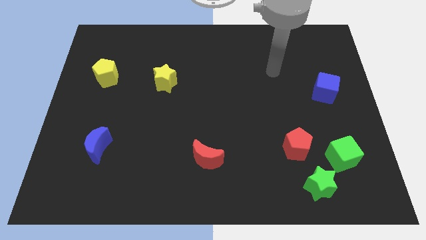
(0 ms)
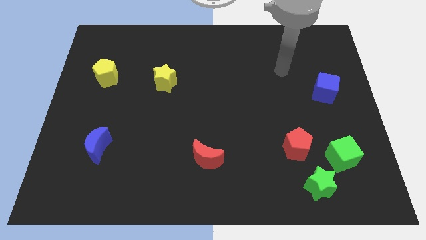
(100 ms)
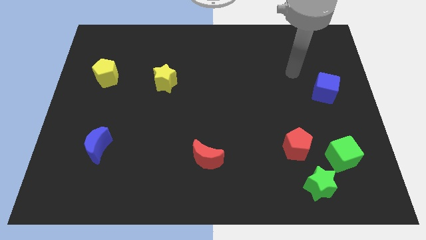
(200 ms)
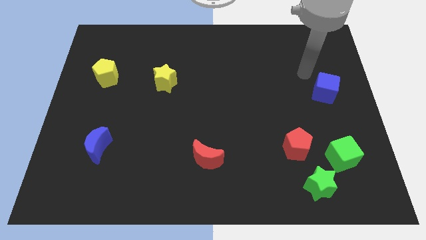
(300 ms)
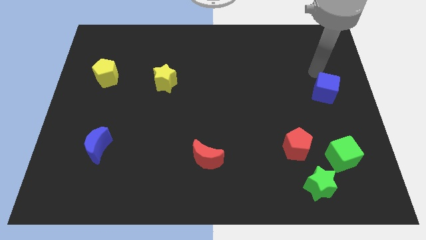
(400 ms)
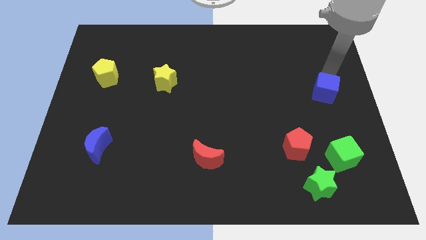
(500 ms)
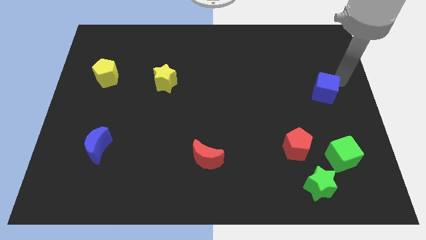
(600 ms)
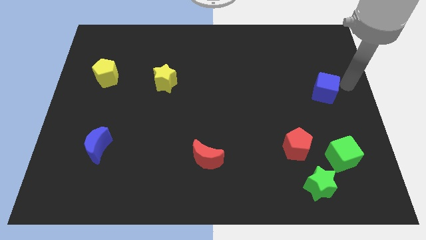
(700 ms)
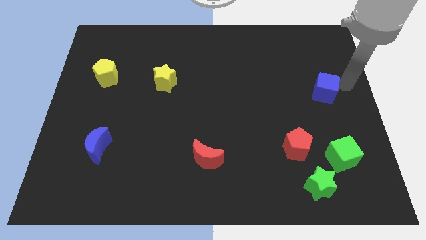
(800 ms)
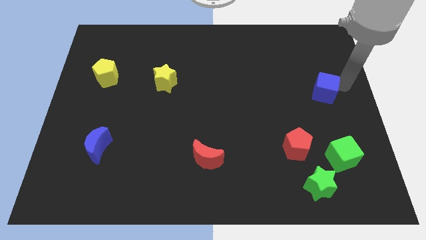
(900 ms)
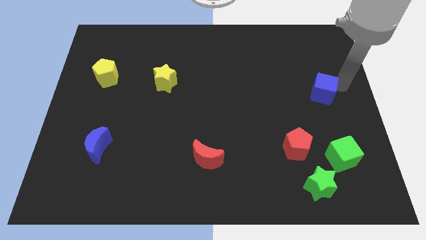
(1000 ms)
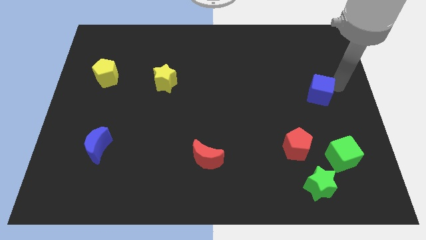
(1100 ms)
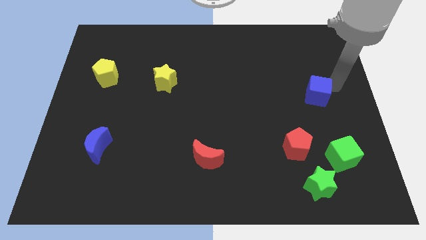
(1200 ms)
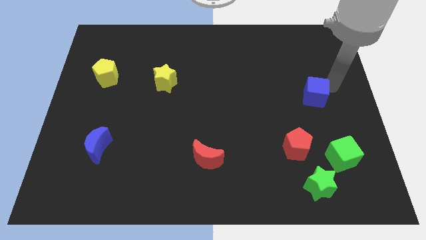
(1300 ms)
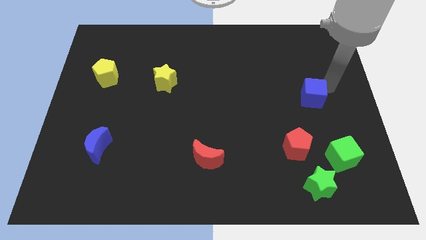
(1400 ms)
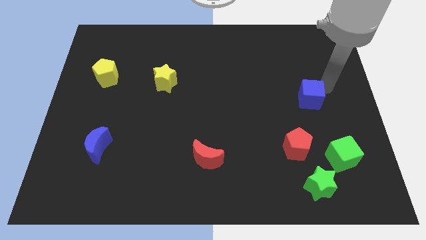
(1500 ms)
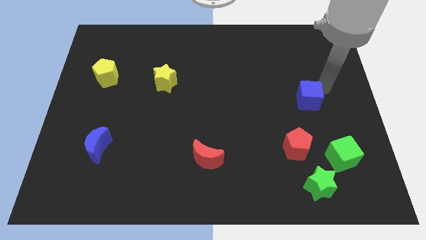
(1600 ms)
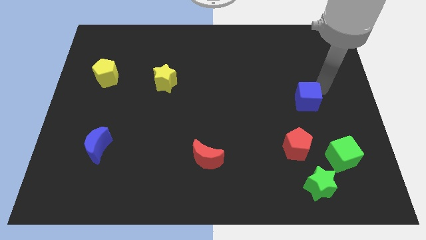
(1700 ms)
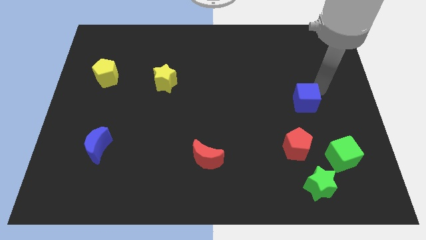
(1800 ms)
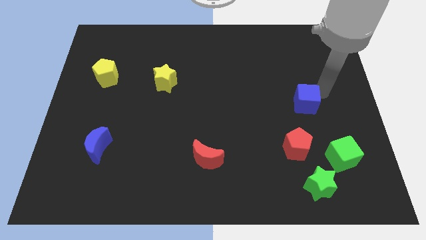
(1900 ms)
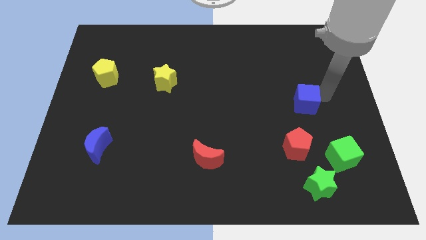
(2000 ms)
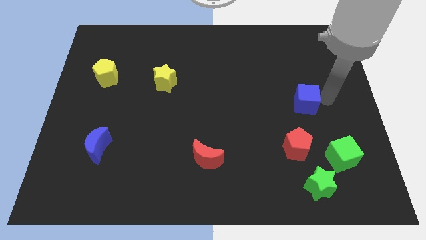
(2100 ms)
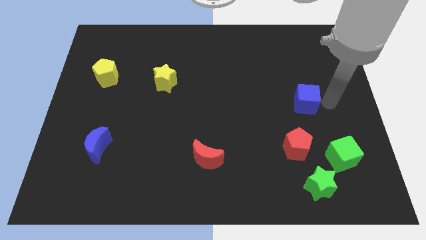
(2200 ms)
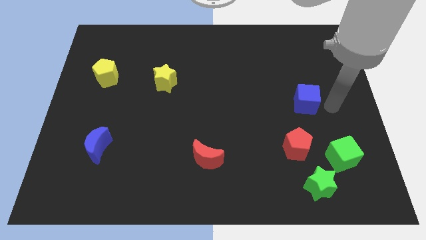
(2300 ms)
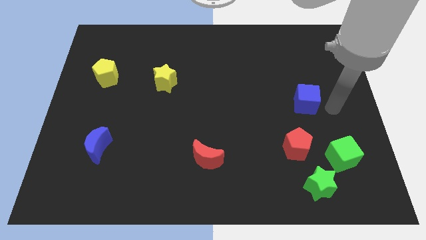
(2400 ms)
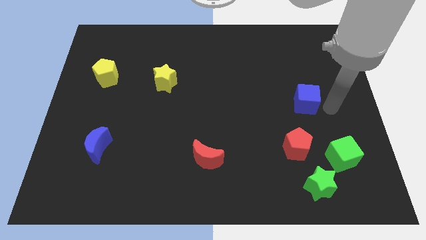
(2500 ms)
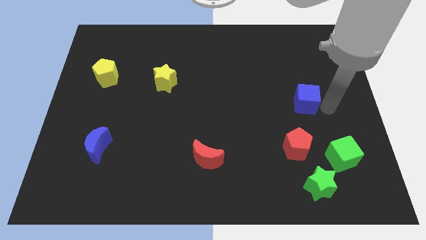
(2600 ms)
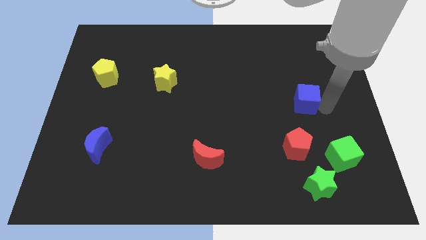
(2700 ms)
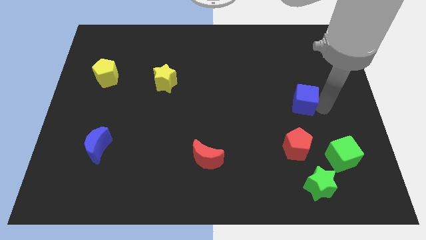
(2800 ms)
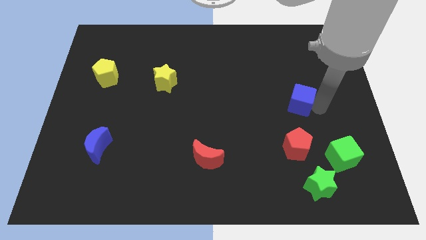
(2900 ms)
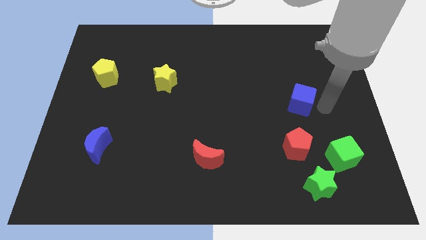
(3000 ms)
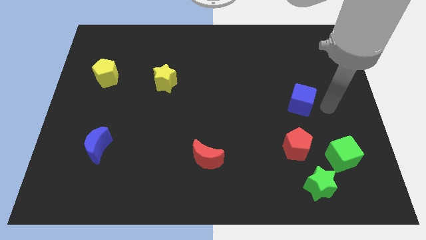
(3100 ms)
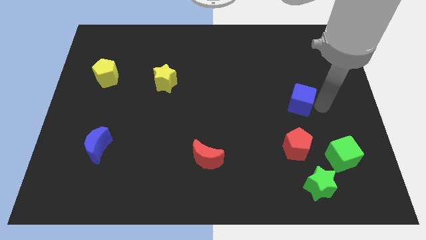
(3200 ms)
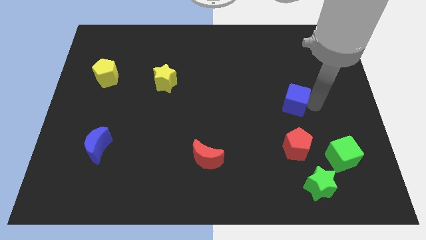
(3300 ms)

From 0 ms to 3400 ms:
move the blue cube slightly to the left

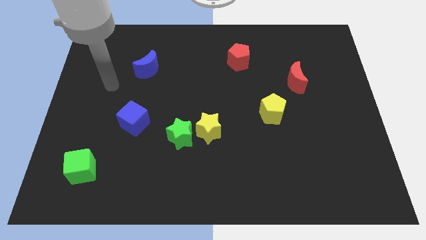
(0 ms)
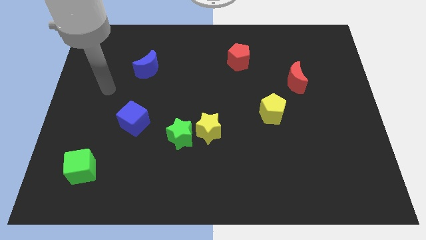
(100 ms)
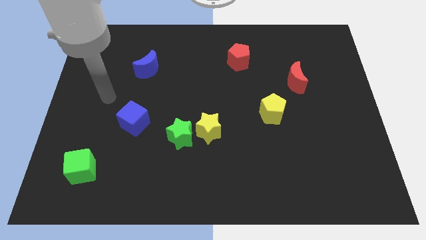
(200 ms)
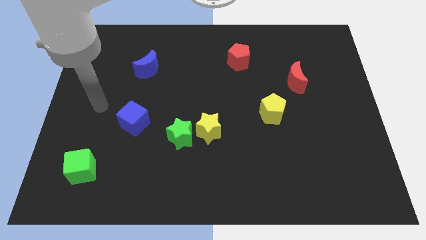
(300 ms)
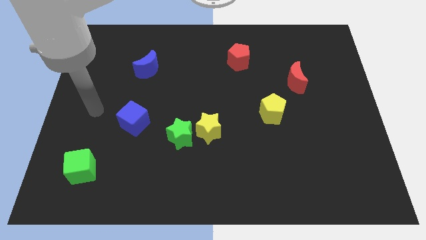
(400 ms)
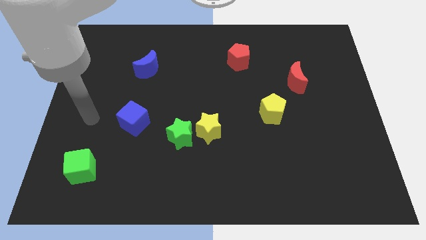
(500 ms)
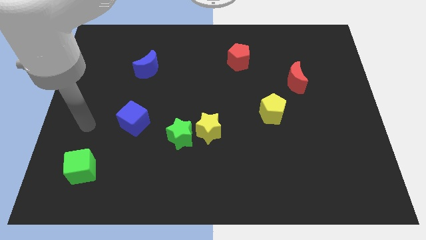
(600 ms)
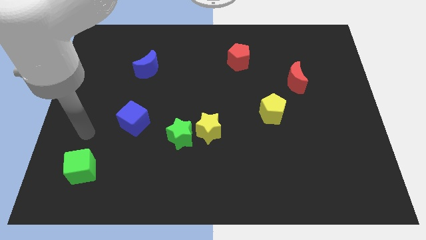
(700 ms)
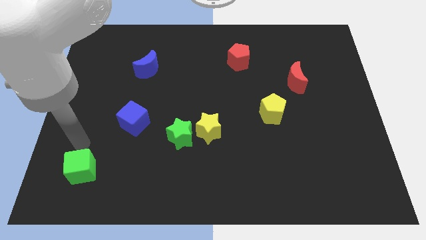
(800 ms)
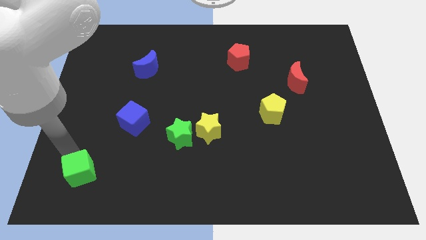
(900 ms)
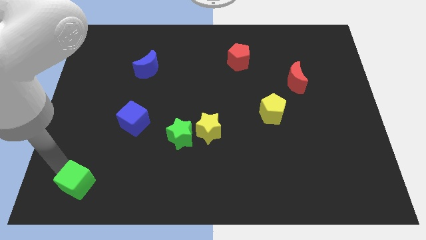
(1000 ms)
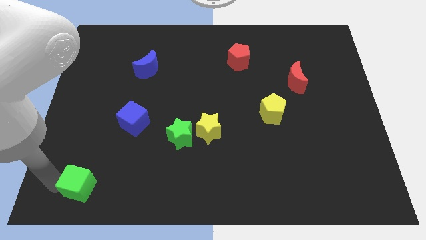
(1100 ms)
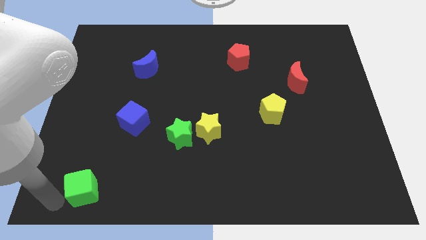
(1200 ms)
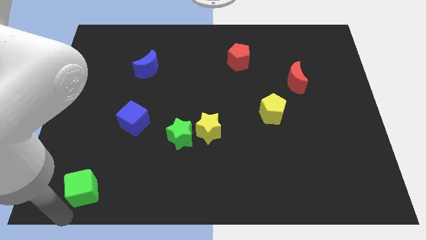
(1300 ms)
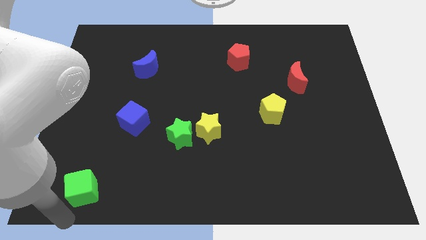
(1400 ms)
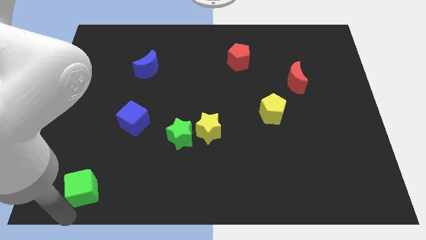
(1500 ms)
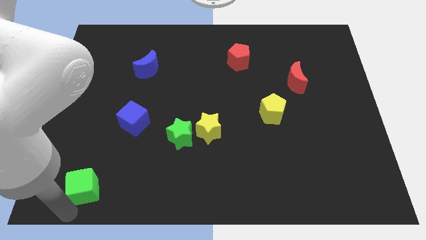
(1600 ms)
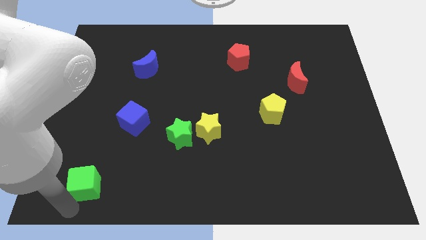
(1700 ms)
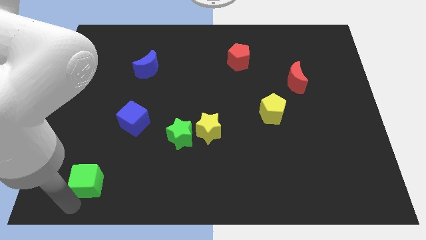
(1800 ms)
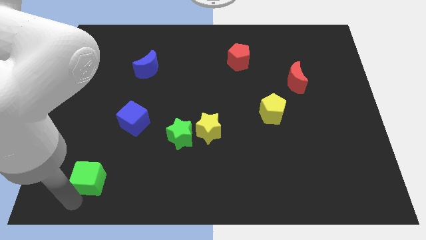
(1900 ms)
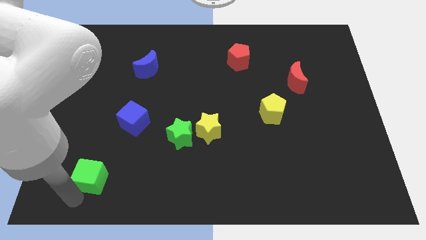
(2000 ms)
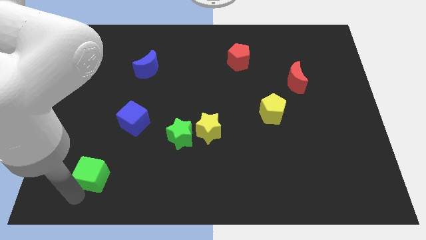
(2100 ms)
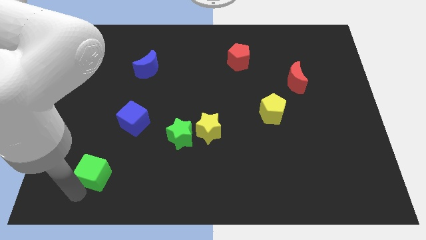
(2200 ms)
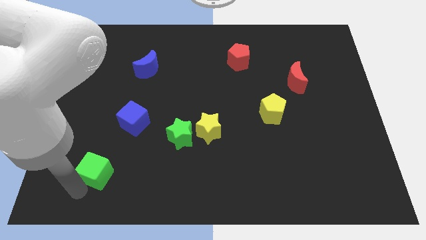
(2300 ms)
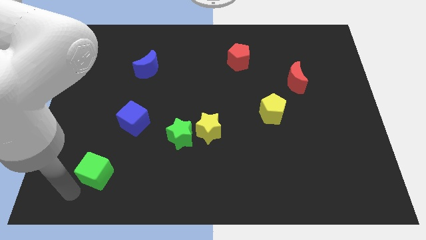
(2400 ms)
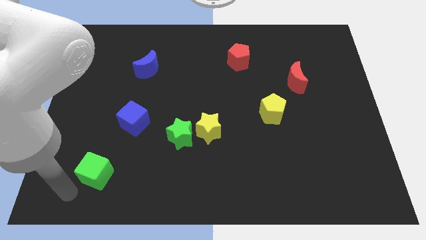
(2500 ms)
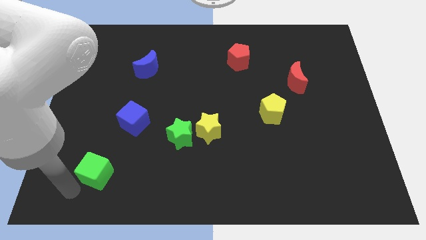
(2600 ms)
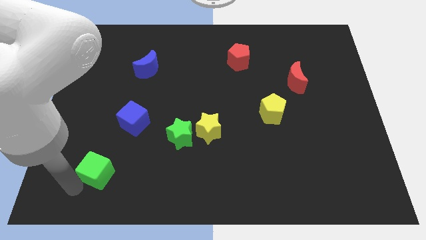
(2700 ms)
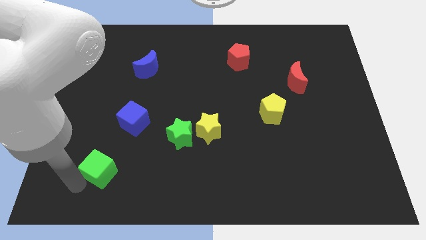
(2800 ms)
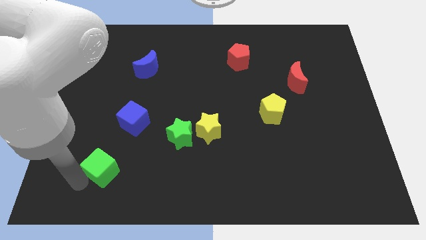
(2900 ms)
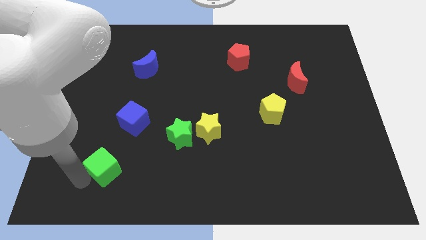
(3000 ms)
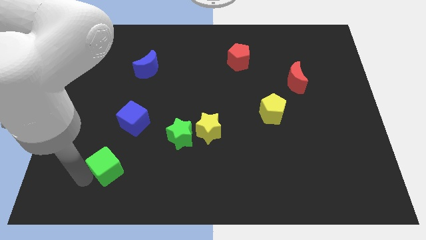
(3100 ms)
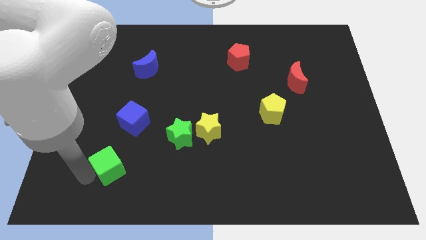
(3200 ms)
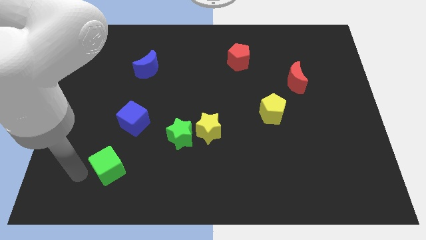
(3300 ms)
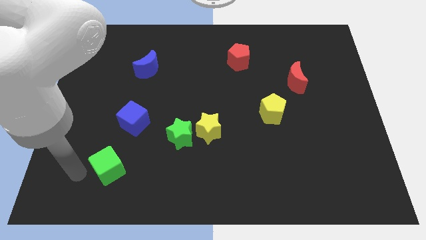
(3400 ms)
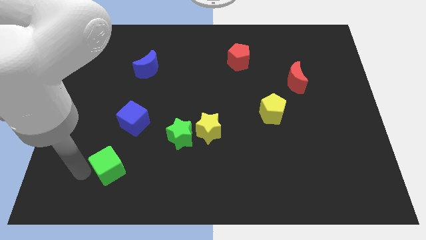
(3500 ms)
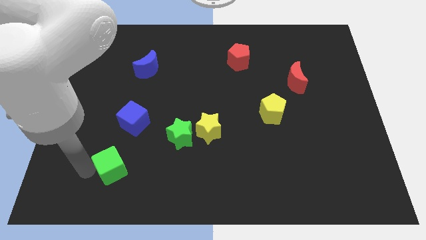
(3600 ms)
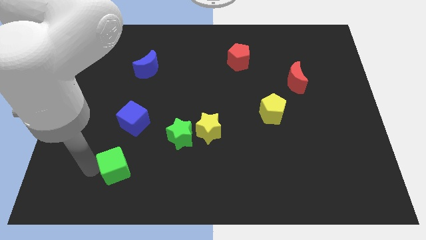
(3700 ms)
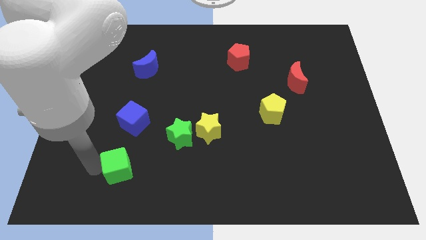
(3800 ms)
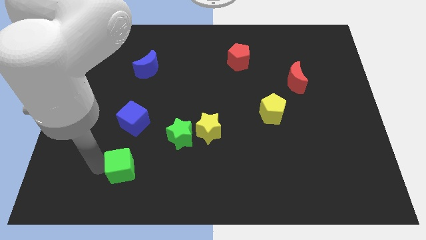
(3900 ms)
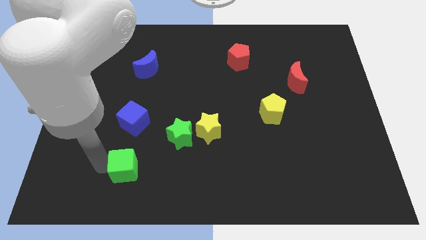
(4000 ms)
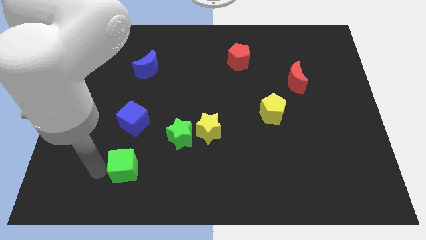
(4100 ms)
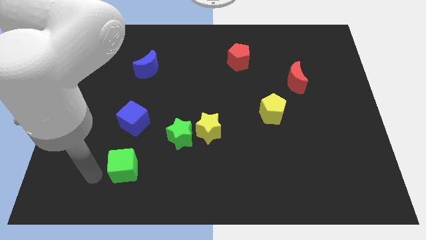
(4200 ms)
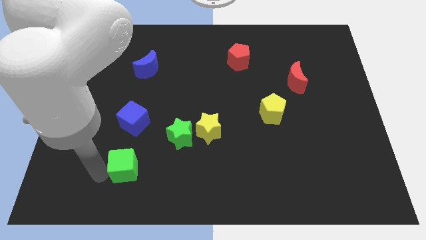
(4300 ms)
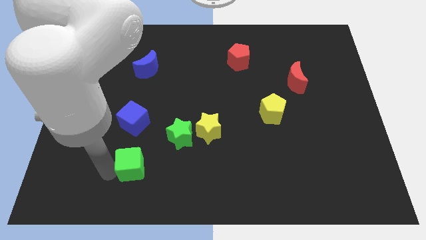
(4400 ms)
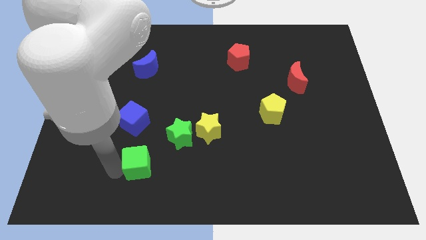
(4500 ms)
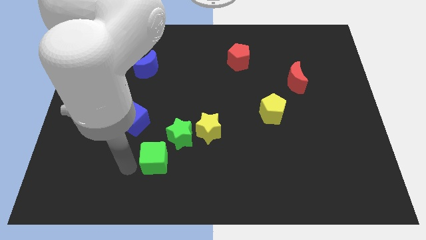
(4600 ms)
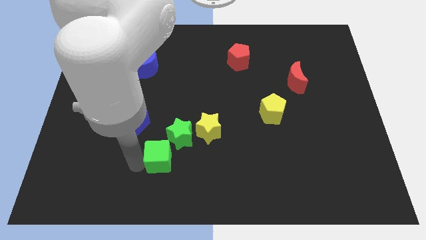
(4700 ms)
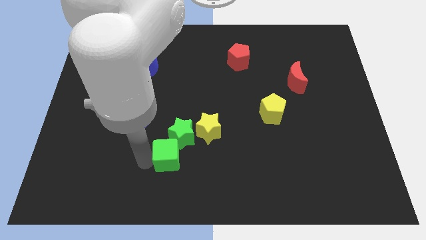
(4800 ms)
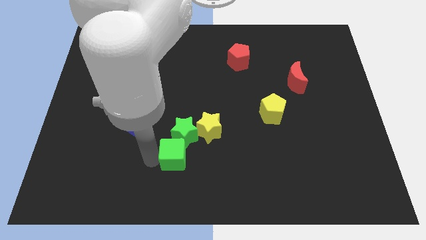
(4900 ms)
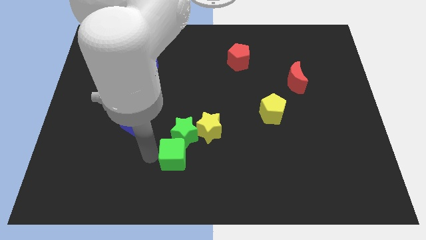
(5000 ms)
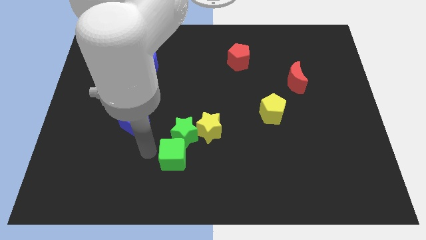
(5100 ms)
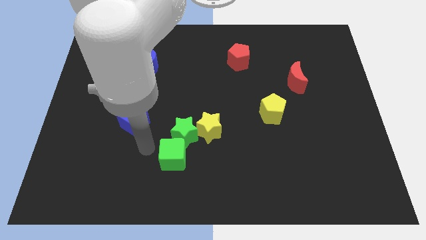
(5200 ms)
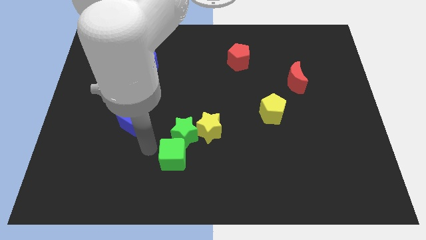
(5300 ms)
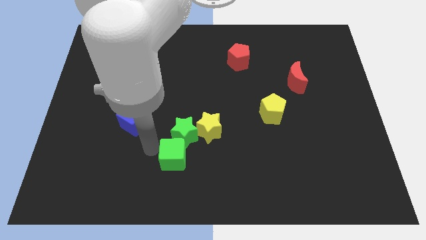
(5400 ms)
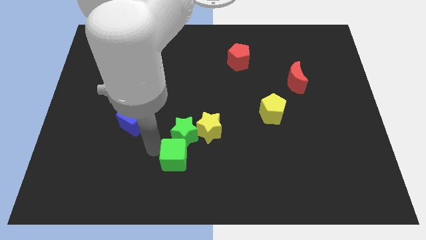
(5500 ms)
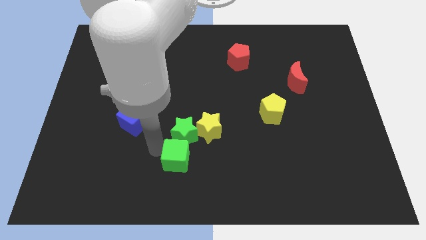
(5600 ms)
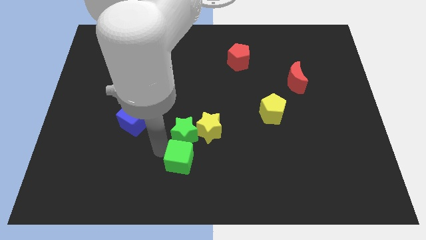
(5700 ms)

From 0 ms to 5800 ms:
slide the green cube right
